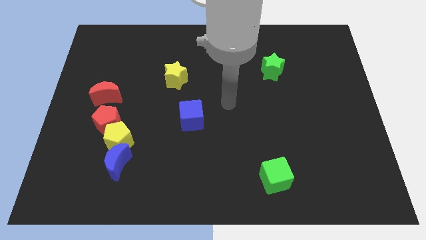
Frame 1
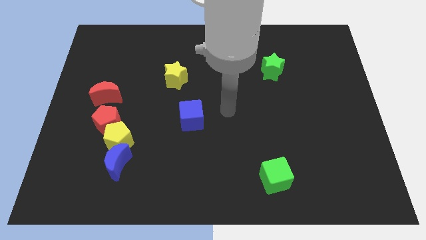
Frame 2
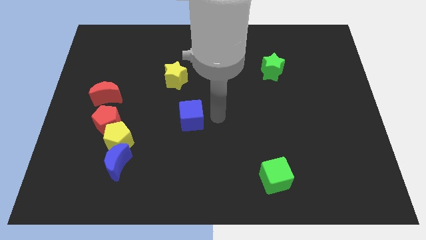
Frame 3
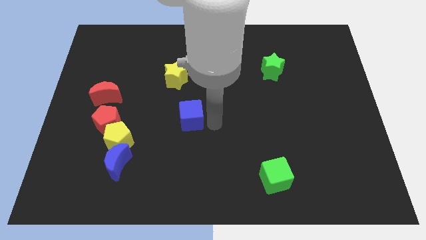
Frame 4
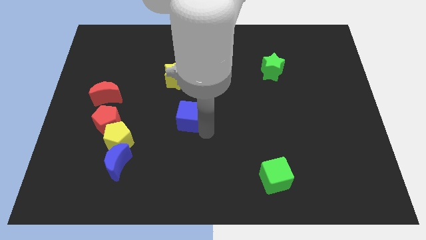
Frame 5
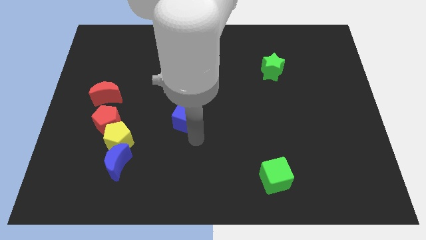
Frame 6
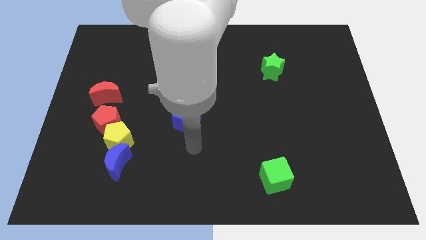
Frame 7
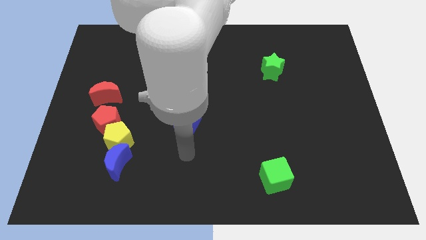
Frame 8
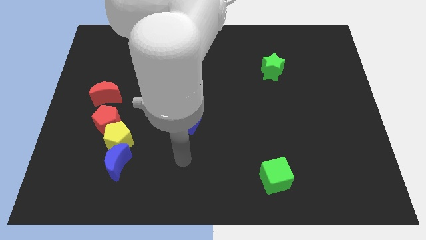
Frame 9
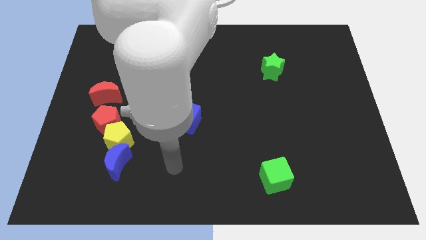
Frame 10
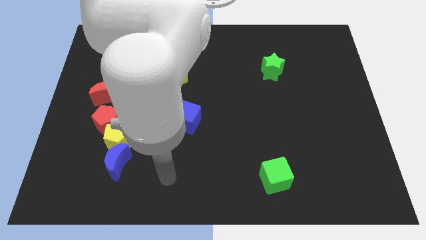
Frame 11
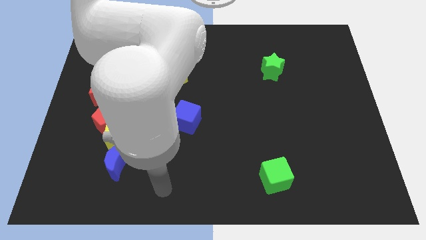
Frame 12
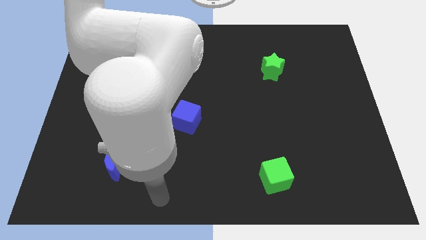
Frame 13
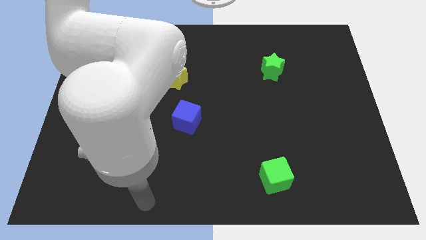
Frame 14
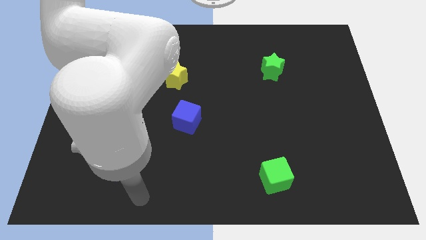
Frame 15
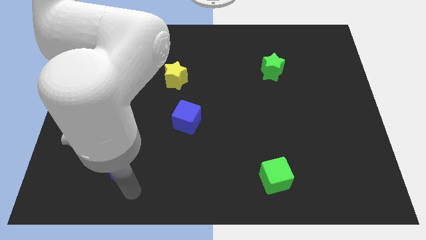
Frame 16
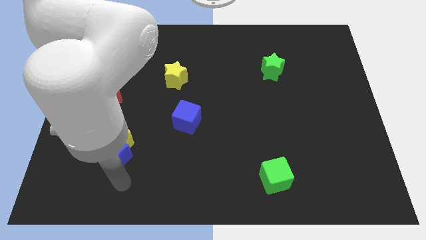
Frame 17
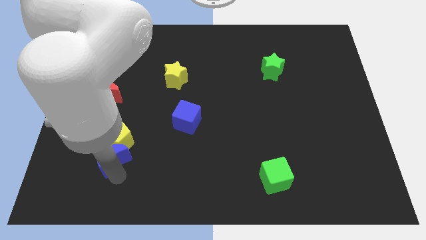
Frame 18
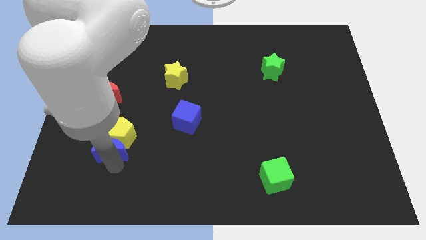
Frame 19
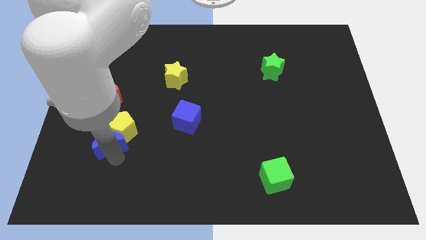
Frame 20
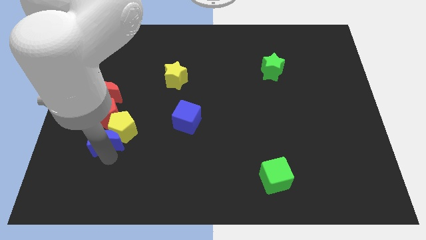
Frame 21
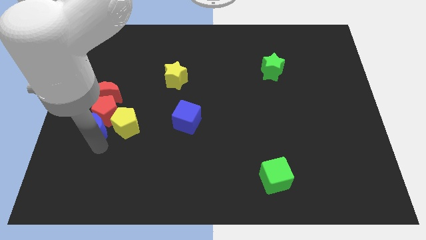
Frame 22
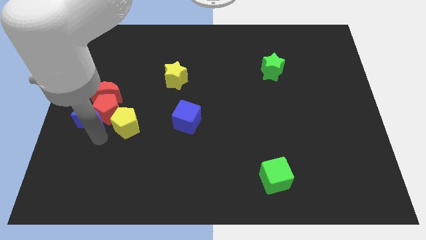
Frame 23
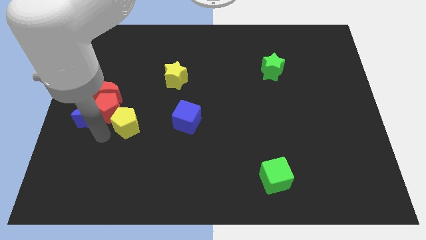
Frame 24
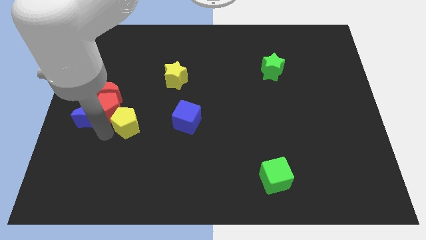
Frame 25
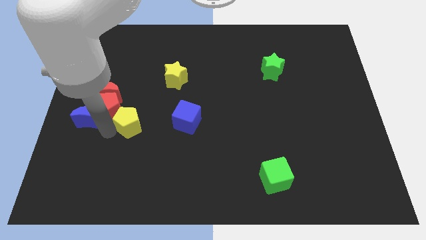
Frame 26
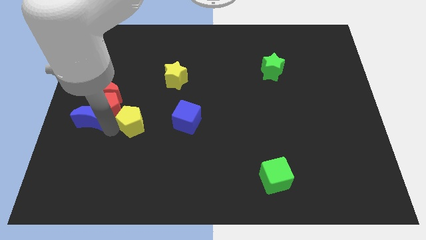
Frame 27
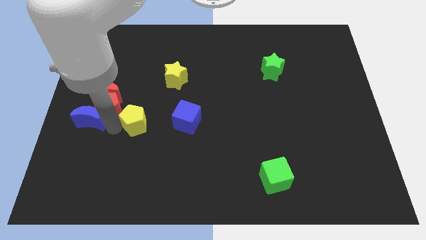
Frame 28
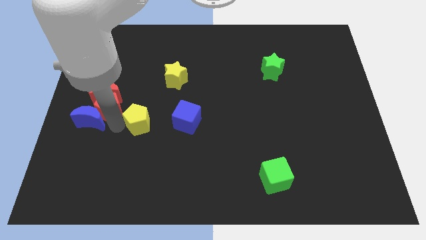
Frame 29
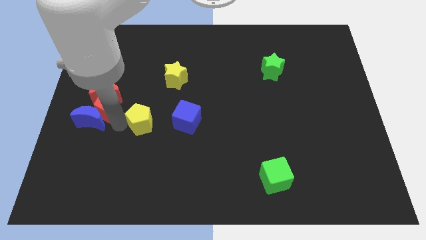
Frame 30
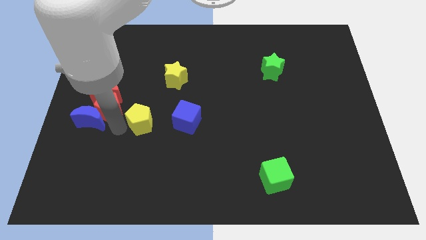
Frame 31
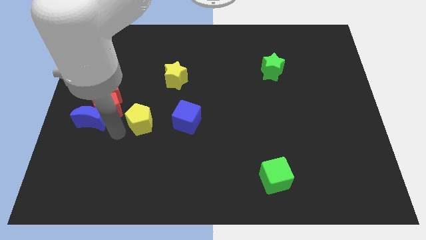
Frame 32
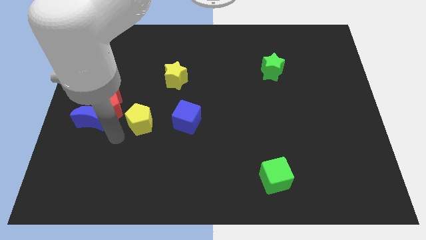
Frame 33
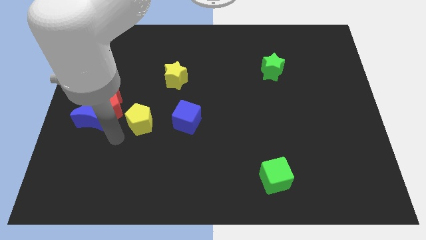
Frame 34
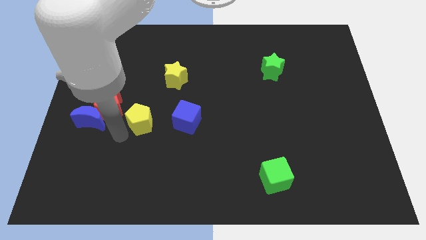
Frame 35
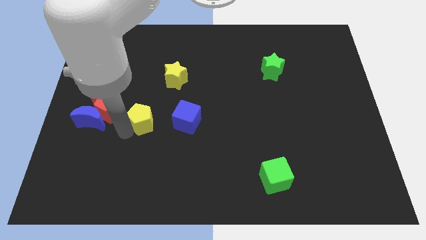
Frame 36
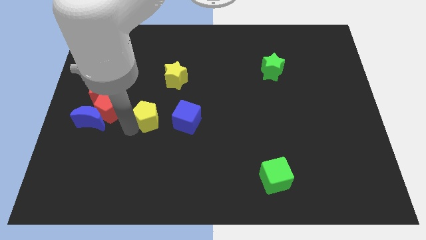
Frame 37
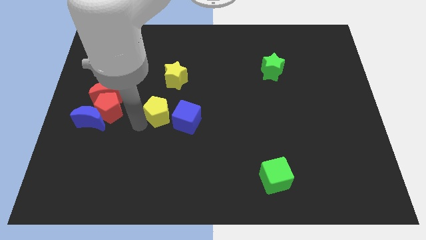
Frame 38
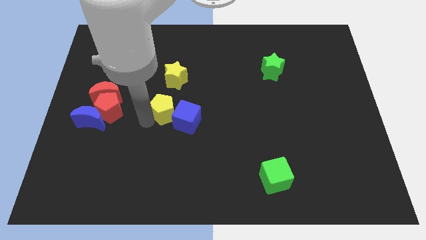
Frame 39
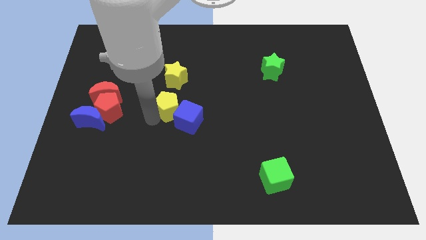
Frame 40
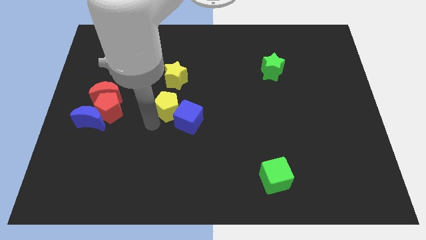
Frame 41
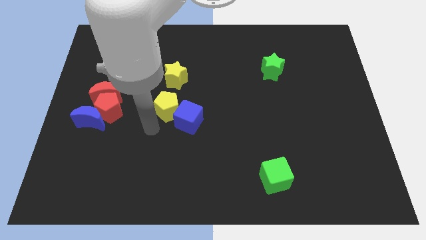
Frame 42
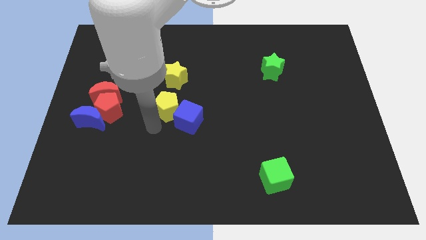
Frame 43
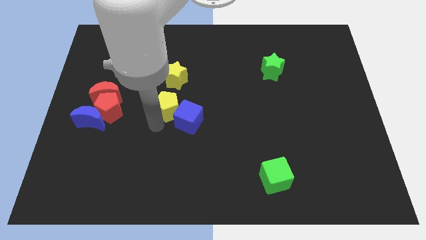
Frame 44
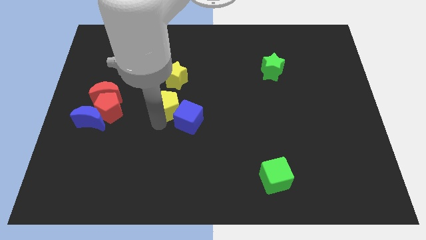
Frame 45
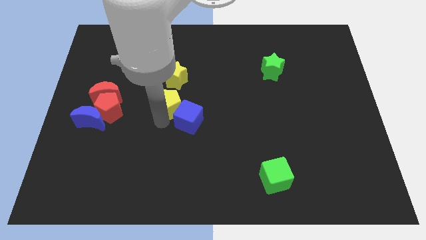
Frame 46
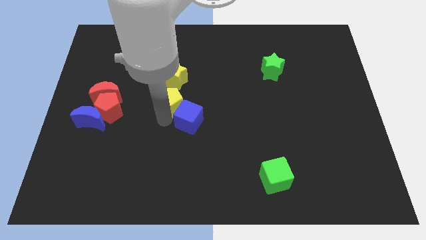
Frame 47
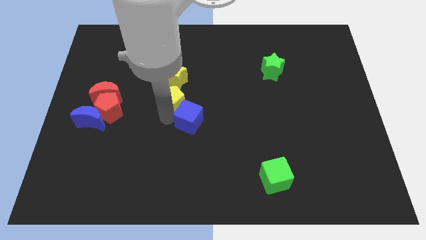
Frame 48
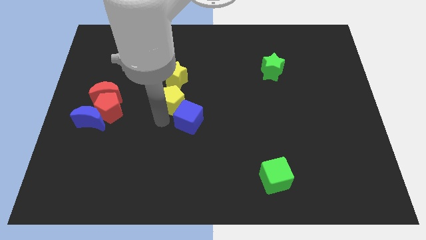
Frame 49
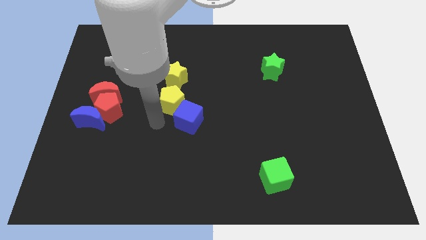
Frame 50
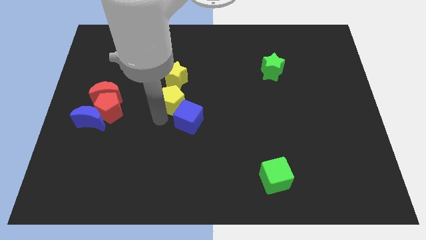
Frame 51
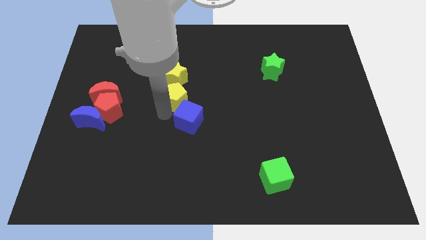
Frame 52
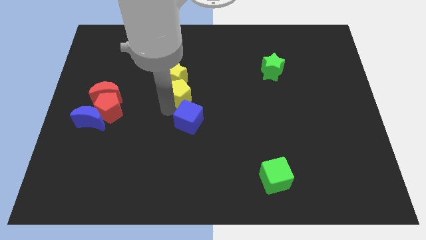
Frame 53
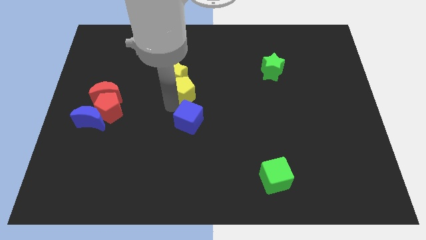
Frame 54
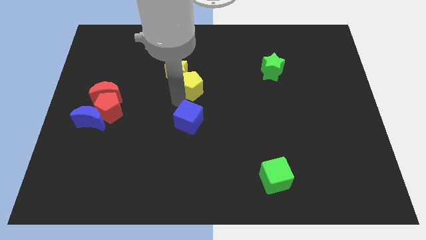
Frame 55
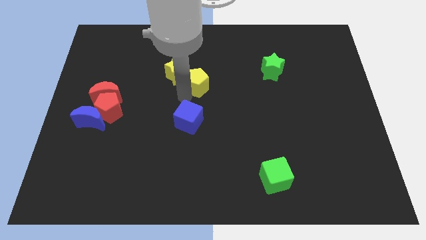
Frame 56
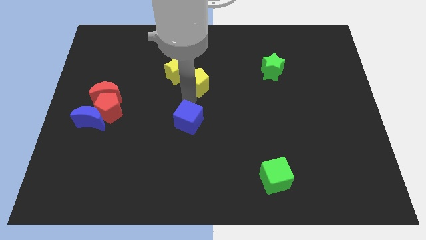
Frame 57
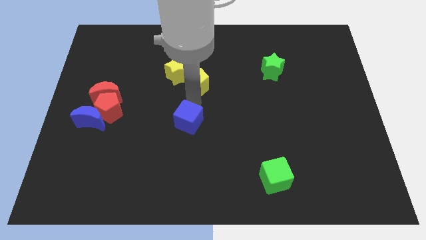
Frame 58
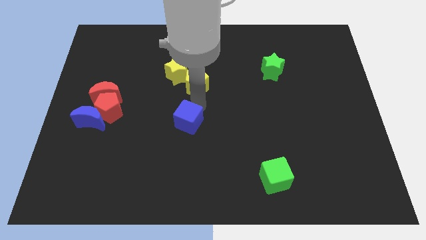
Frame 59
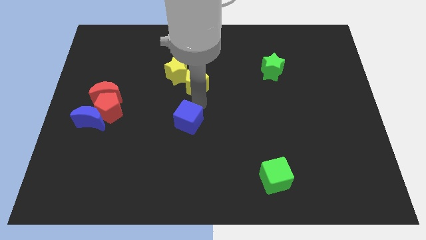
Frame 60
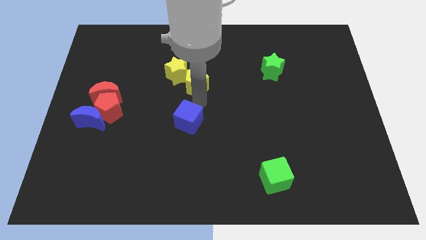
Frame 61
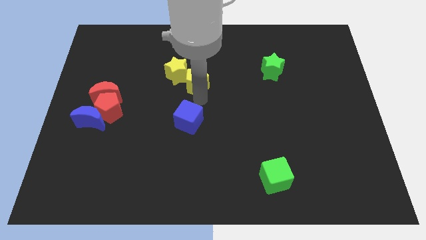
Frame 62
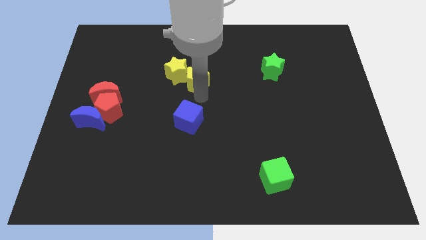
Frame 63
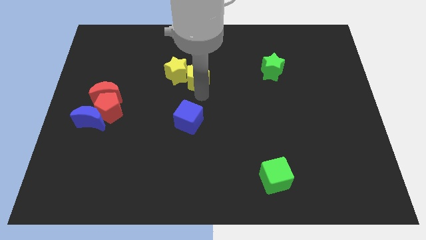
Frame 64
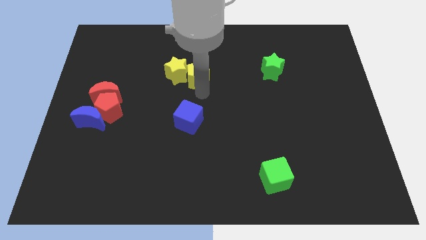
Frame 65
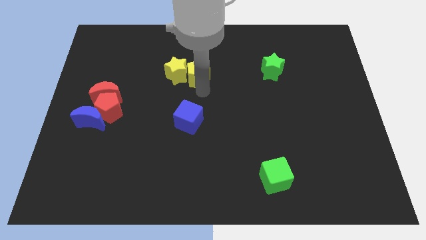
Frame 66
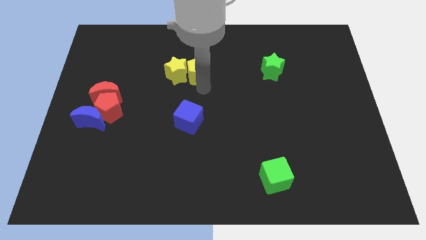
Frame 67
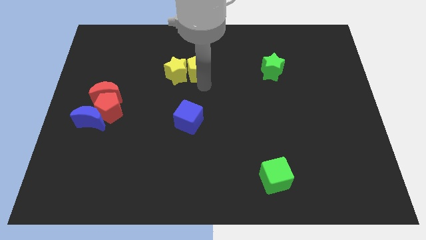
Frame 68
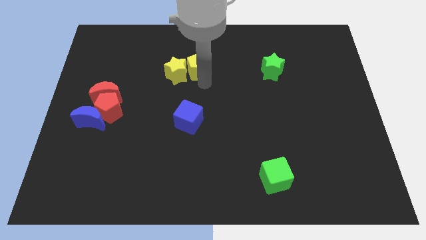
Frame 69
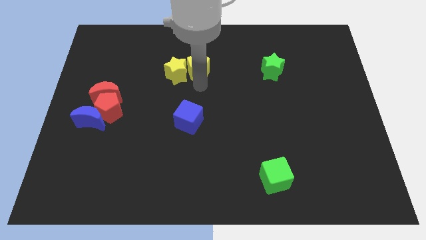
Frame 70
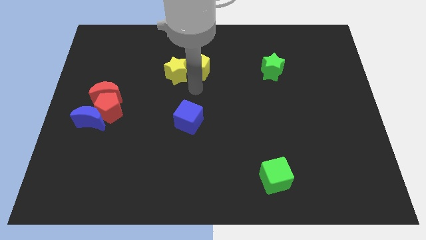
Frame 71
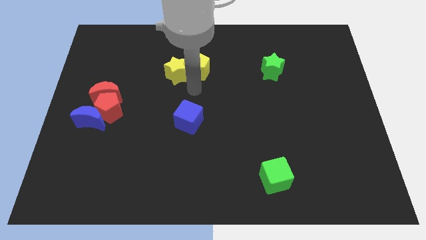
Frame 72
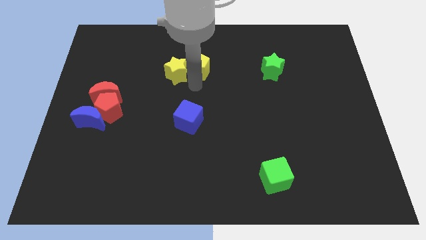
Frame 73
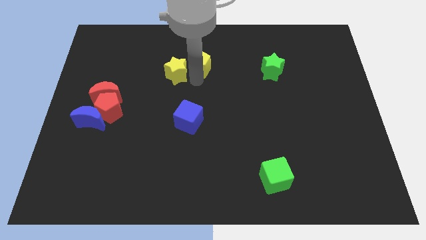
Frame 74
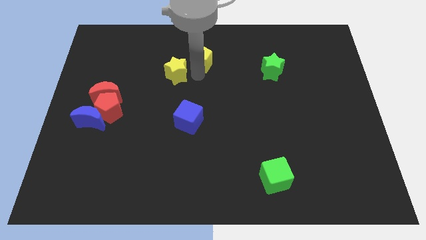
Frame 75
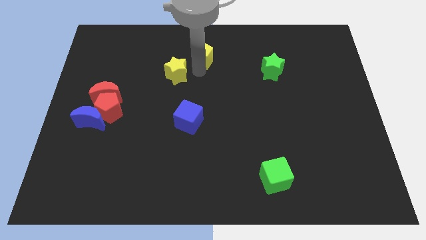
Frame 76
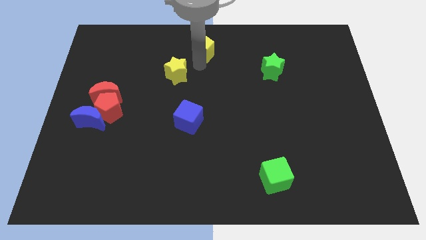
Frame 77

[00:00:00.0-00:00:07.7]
push the yellow pentagon to the towards your base
